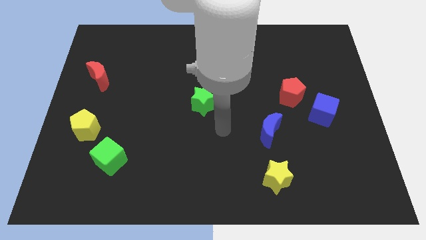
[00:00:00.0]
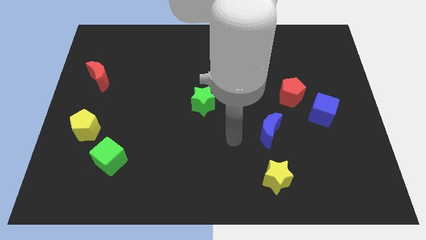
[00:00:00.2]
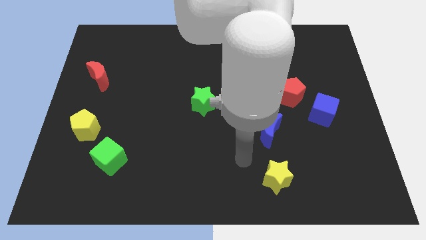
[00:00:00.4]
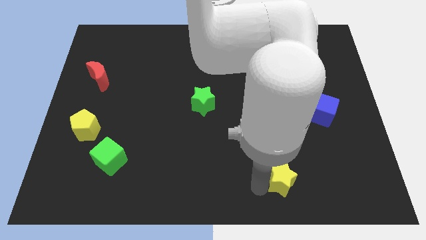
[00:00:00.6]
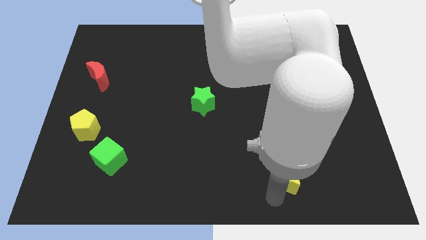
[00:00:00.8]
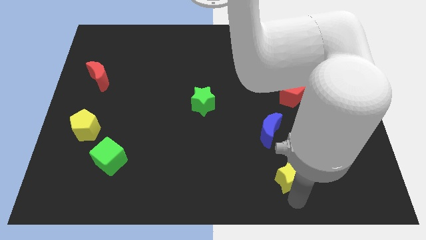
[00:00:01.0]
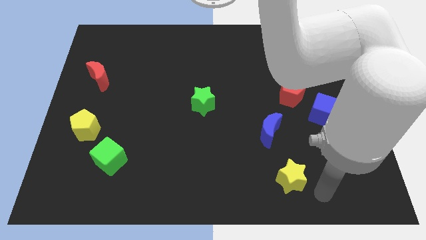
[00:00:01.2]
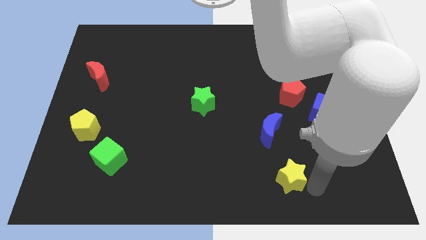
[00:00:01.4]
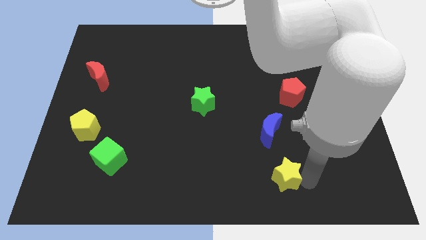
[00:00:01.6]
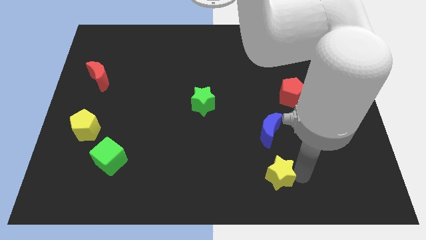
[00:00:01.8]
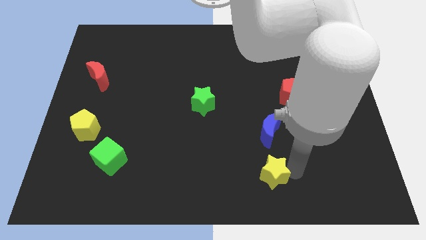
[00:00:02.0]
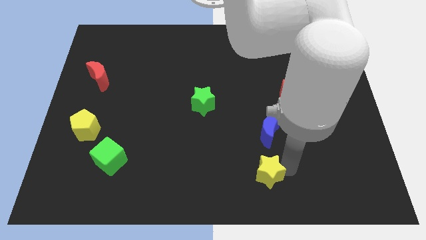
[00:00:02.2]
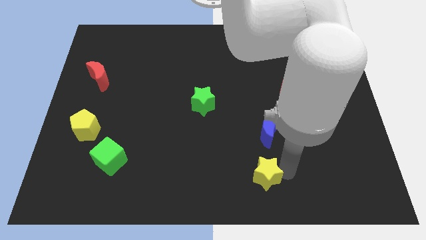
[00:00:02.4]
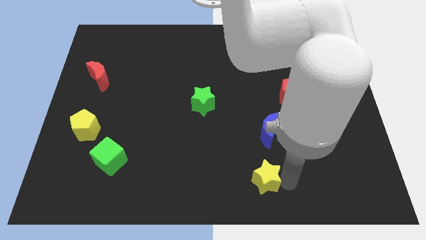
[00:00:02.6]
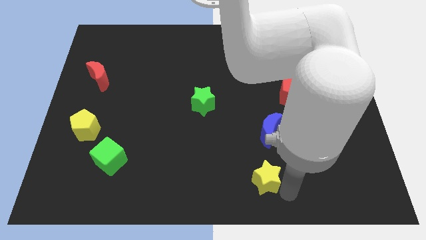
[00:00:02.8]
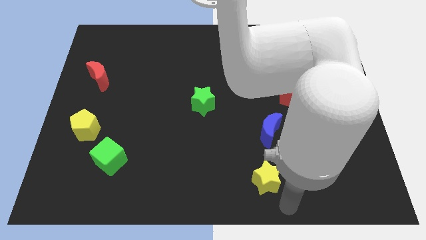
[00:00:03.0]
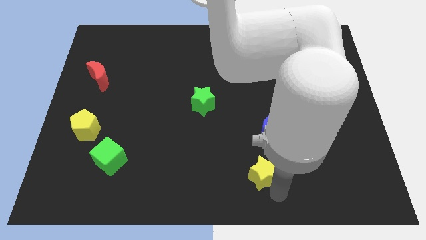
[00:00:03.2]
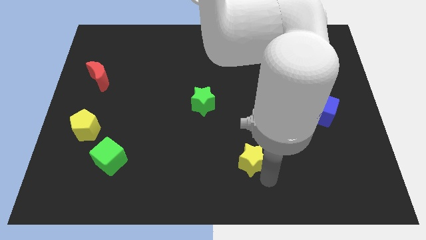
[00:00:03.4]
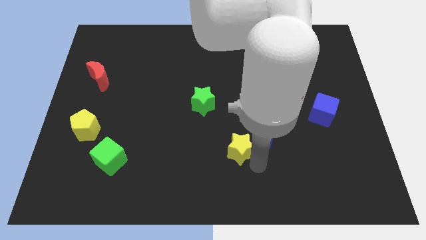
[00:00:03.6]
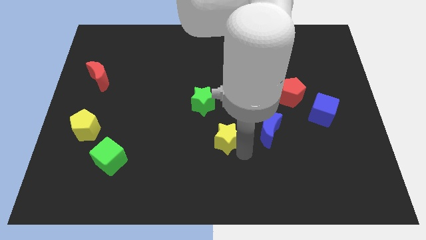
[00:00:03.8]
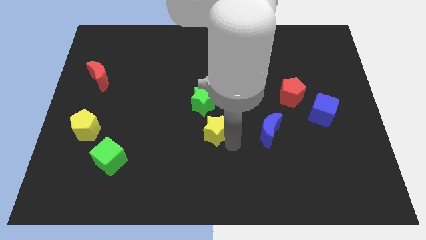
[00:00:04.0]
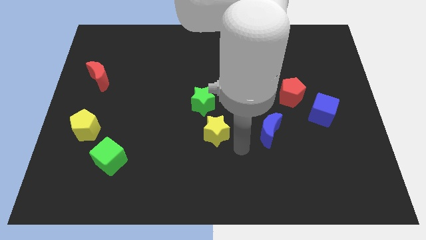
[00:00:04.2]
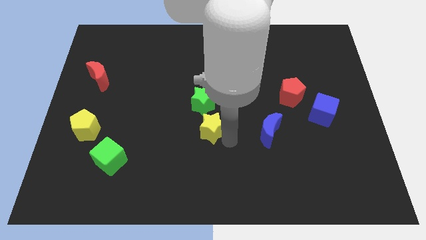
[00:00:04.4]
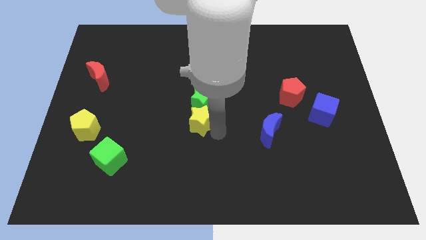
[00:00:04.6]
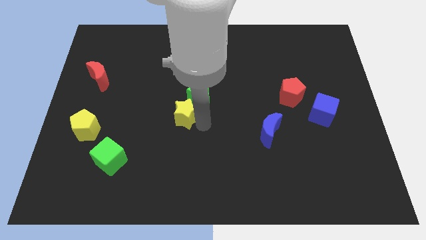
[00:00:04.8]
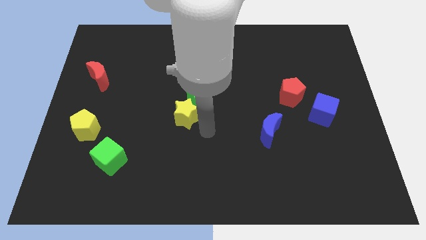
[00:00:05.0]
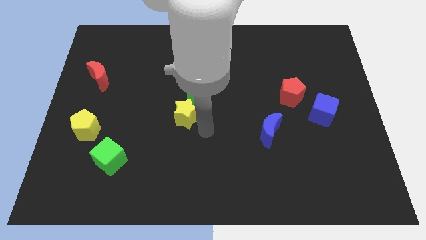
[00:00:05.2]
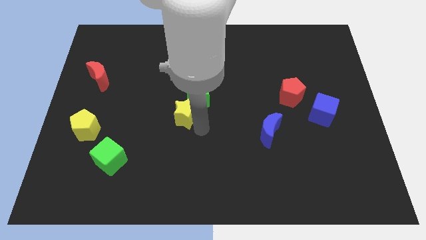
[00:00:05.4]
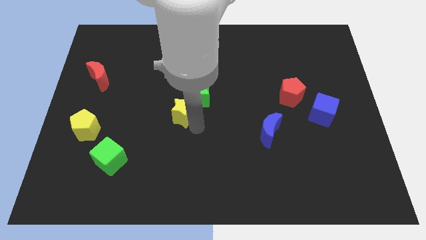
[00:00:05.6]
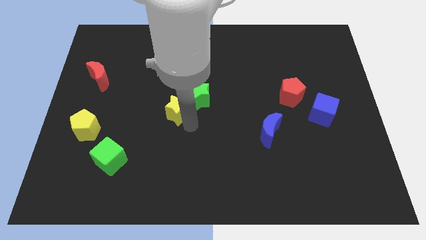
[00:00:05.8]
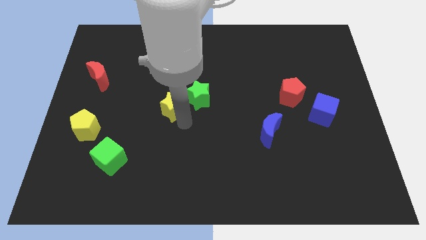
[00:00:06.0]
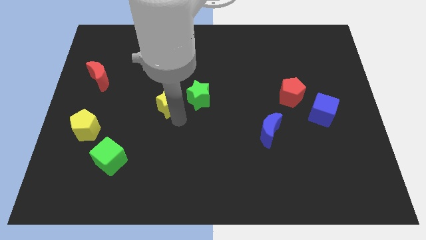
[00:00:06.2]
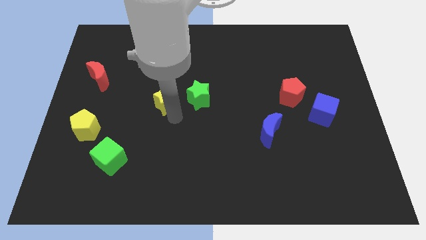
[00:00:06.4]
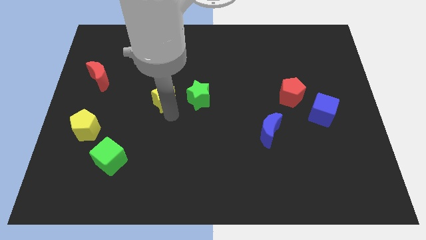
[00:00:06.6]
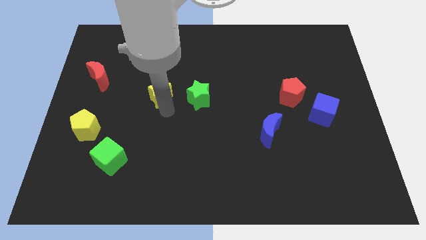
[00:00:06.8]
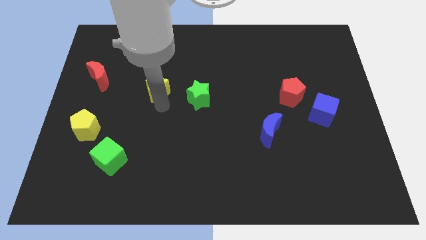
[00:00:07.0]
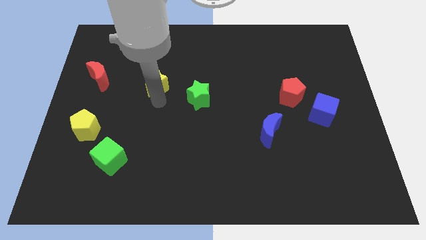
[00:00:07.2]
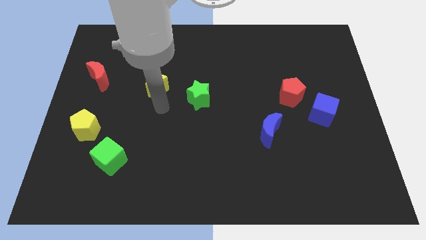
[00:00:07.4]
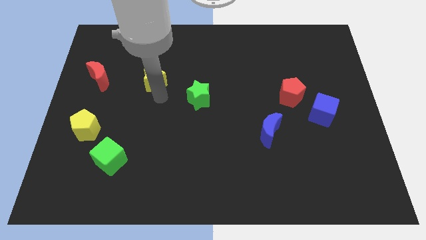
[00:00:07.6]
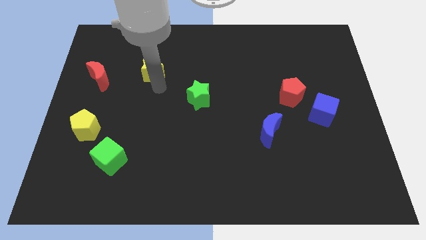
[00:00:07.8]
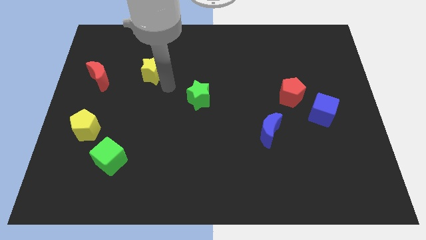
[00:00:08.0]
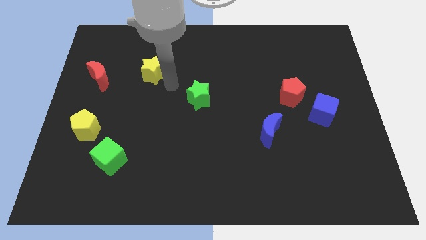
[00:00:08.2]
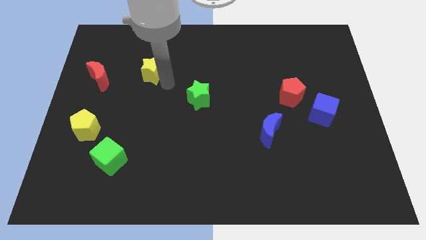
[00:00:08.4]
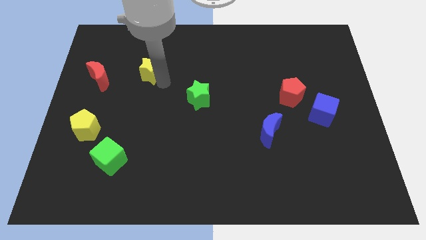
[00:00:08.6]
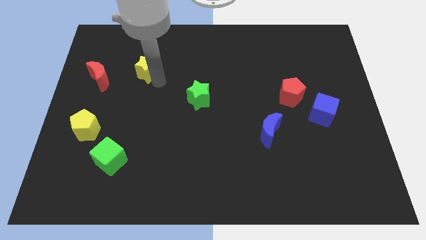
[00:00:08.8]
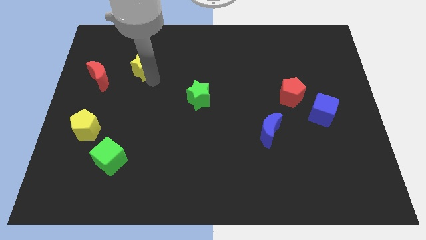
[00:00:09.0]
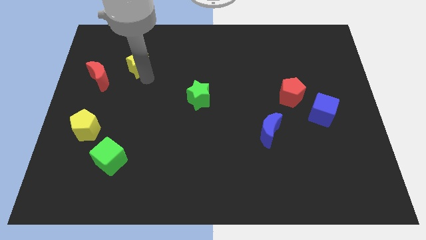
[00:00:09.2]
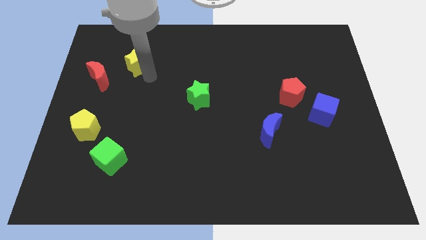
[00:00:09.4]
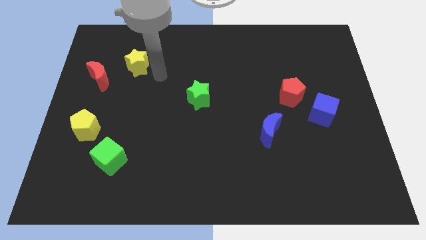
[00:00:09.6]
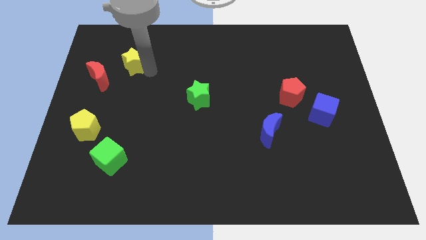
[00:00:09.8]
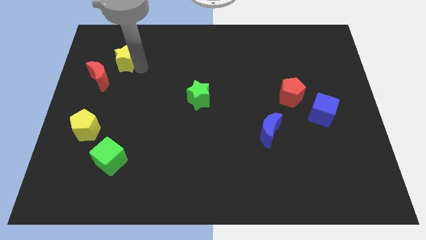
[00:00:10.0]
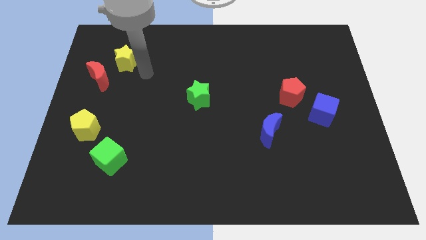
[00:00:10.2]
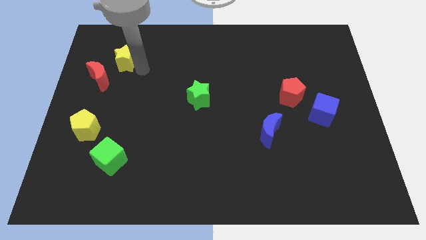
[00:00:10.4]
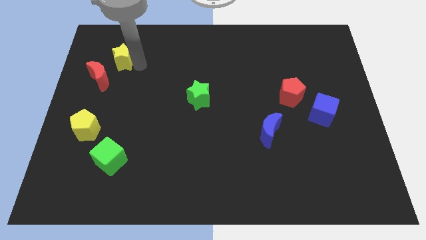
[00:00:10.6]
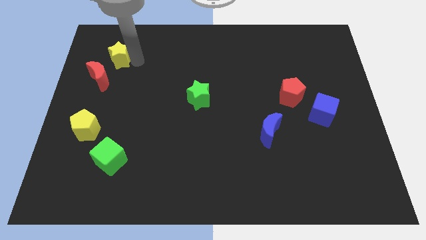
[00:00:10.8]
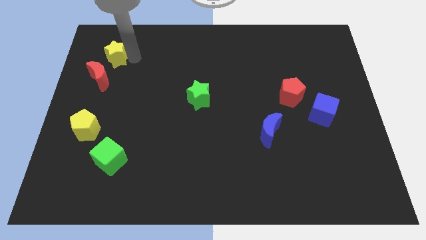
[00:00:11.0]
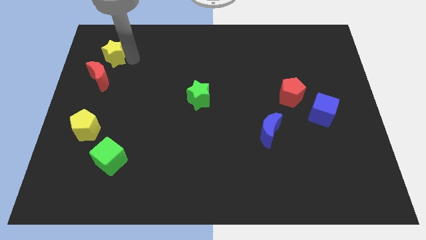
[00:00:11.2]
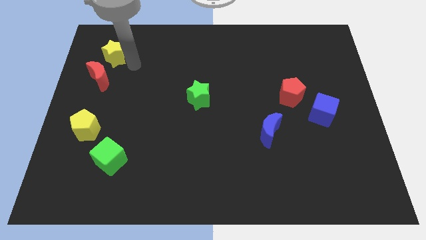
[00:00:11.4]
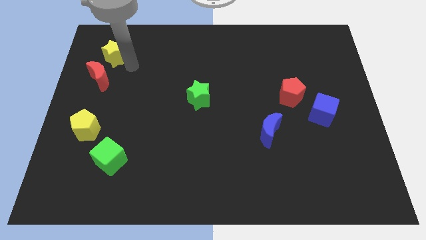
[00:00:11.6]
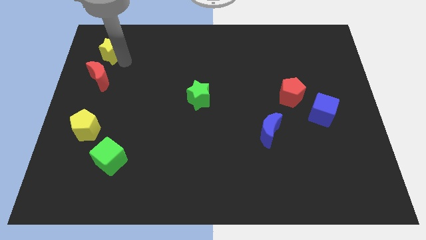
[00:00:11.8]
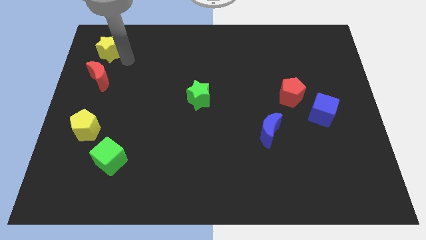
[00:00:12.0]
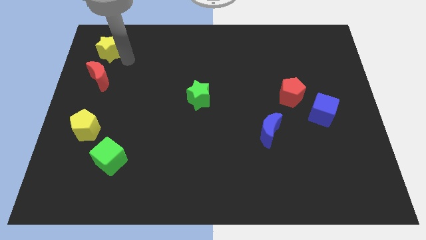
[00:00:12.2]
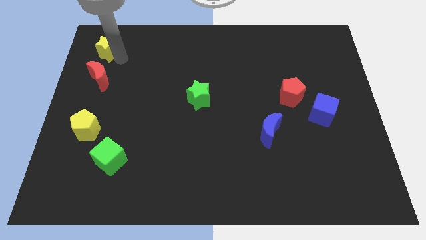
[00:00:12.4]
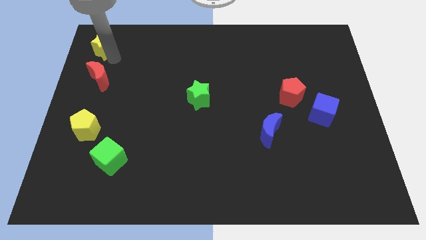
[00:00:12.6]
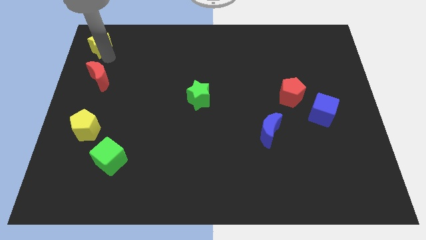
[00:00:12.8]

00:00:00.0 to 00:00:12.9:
move the yellow star to the top left
